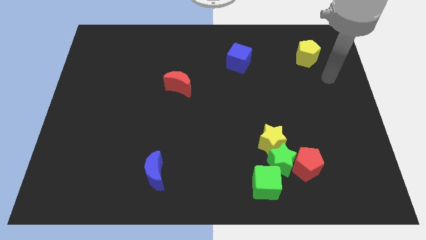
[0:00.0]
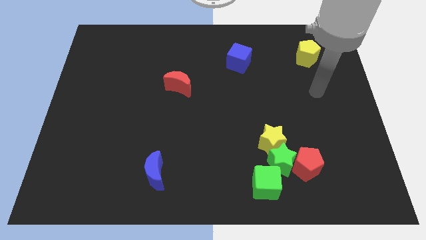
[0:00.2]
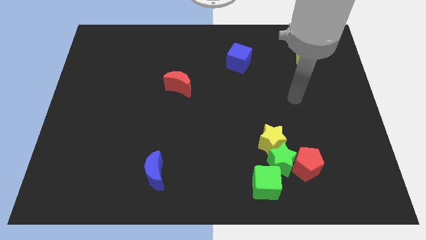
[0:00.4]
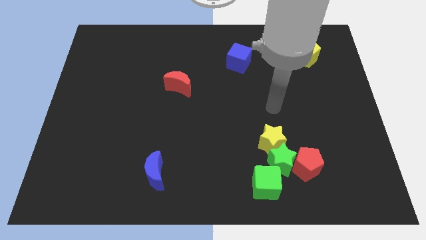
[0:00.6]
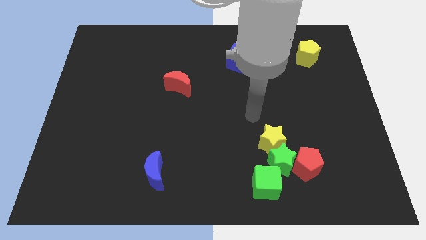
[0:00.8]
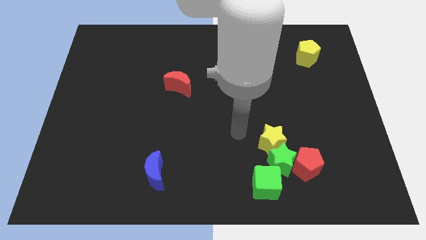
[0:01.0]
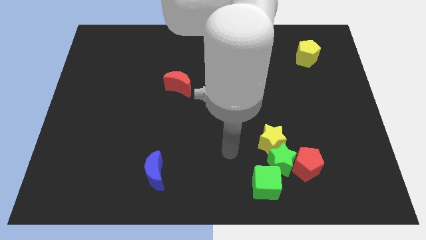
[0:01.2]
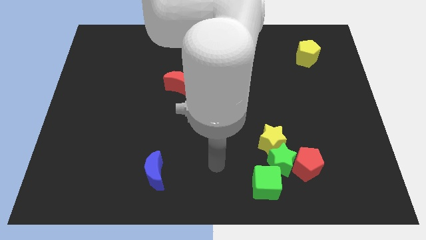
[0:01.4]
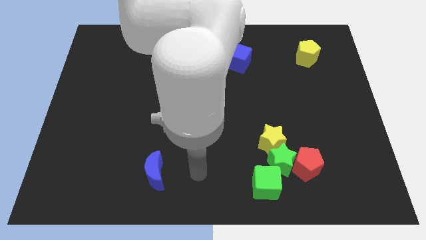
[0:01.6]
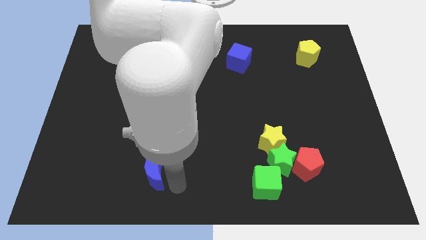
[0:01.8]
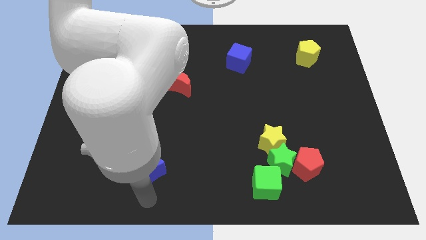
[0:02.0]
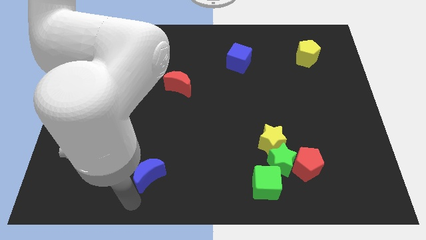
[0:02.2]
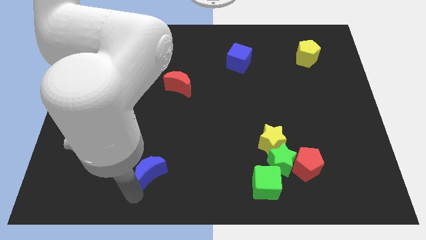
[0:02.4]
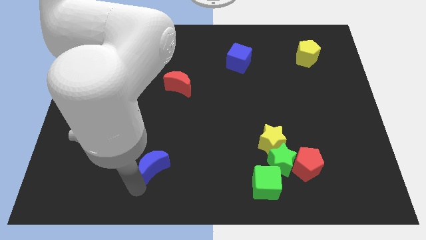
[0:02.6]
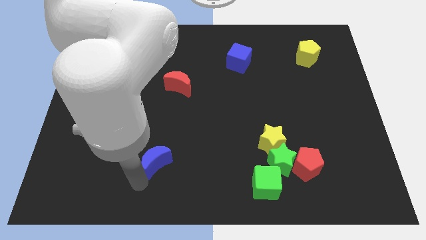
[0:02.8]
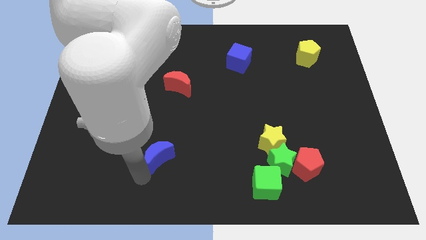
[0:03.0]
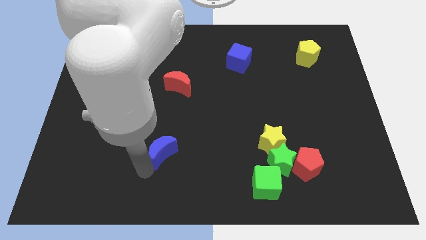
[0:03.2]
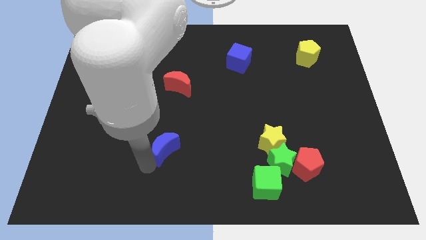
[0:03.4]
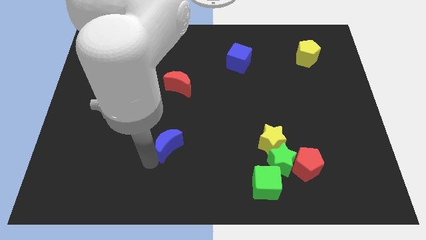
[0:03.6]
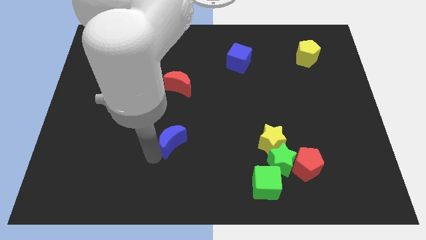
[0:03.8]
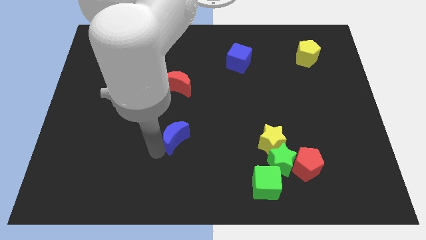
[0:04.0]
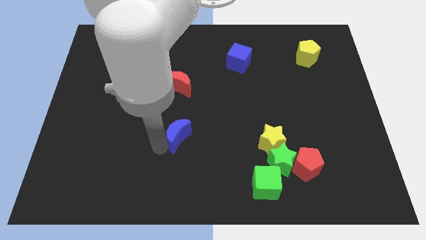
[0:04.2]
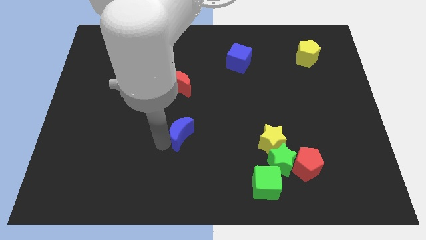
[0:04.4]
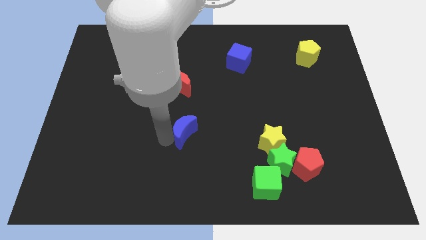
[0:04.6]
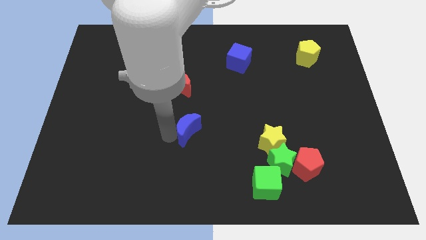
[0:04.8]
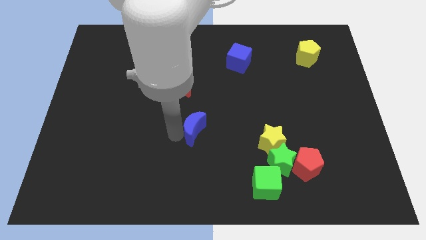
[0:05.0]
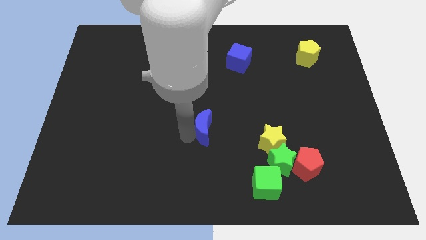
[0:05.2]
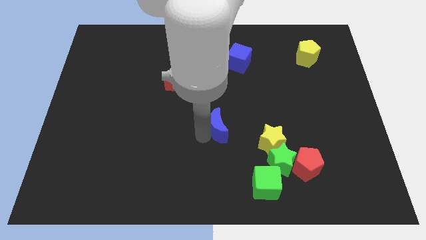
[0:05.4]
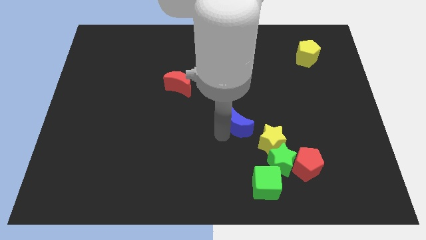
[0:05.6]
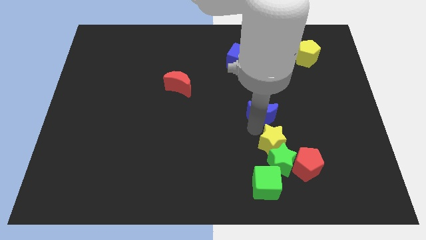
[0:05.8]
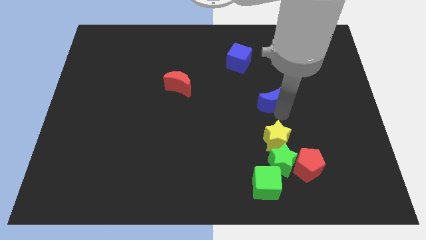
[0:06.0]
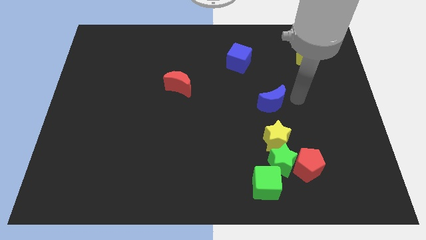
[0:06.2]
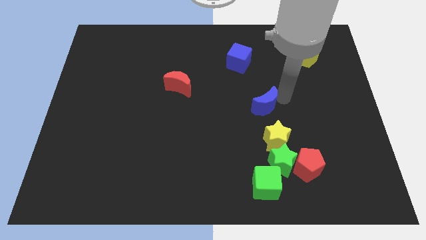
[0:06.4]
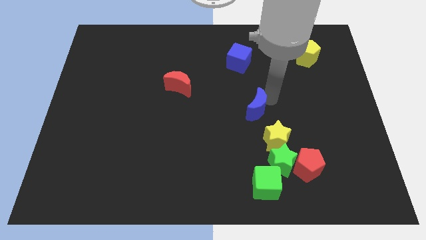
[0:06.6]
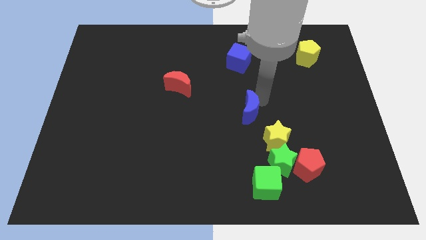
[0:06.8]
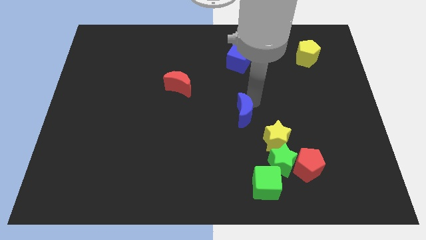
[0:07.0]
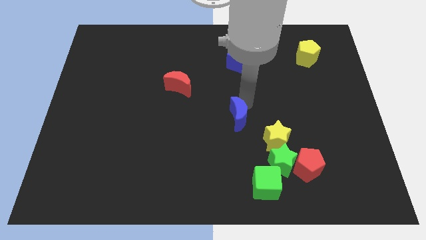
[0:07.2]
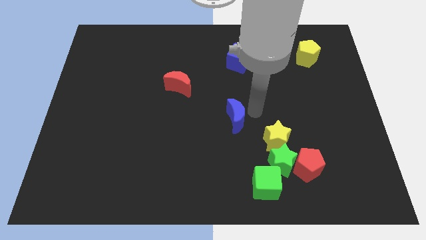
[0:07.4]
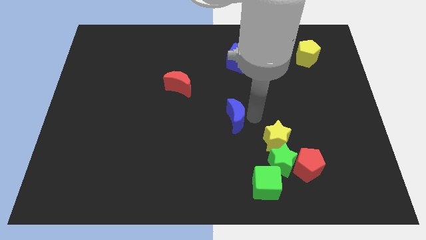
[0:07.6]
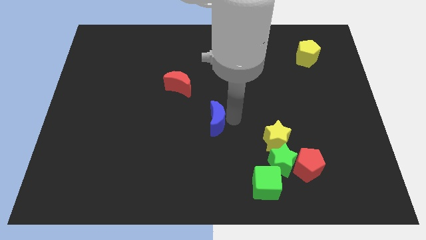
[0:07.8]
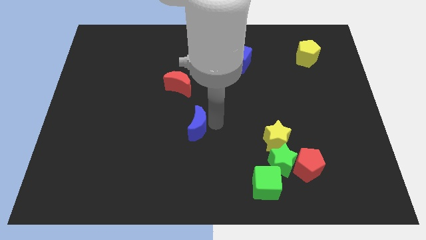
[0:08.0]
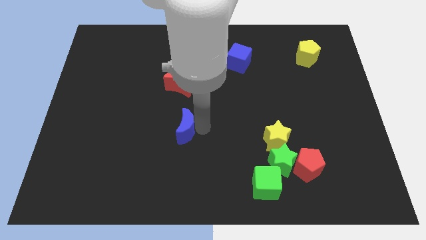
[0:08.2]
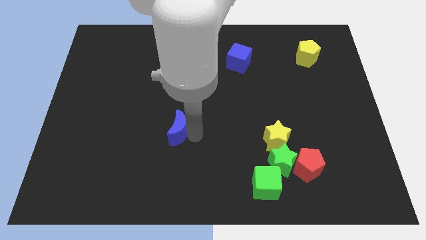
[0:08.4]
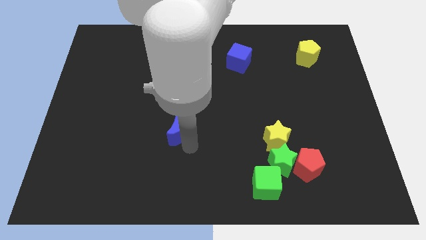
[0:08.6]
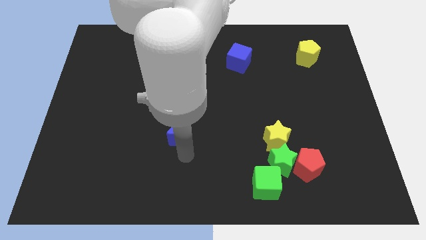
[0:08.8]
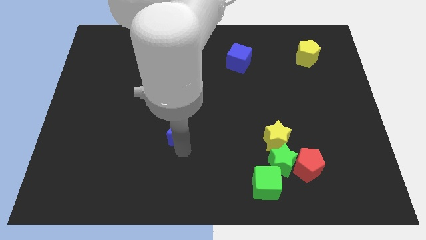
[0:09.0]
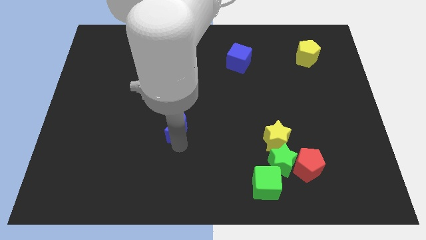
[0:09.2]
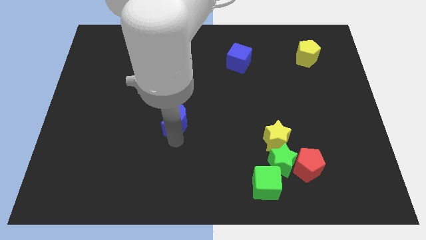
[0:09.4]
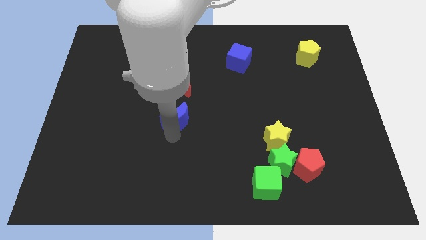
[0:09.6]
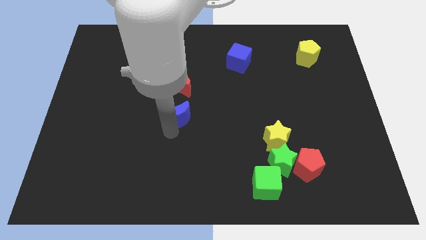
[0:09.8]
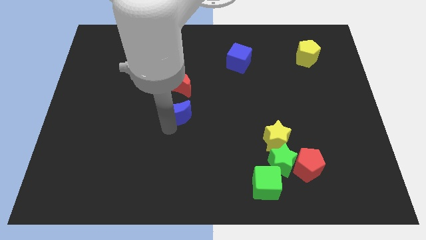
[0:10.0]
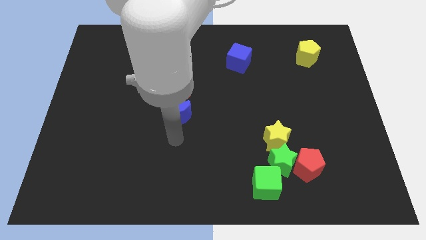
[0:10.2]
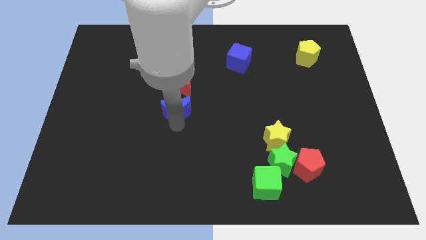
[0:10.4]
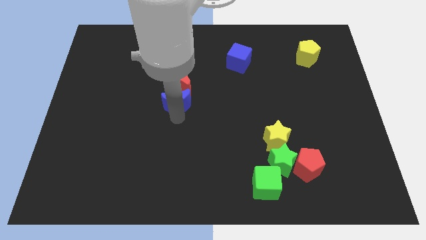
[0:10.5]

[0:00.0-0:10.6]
move the blue moon towards the red moon

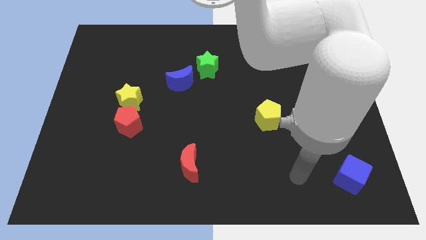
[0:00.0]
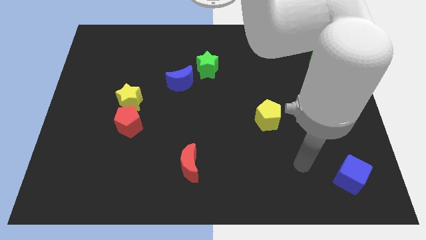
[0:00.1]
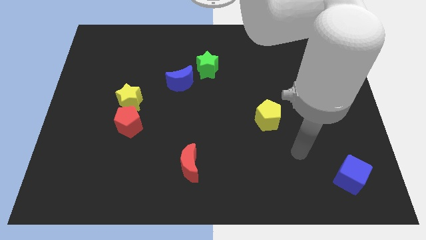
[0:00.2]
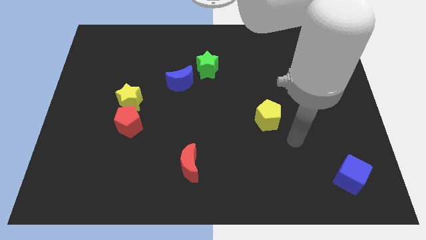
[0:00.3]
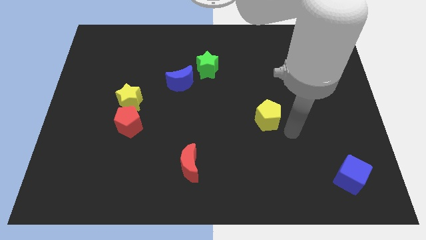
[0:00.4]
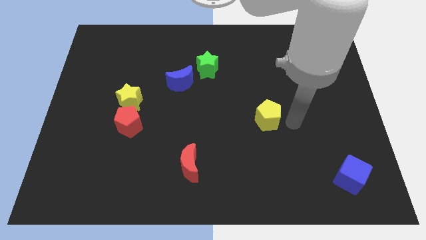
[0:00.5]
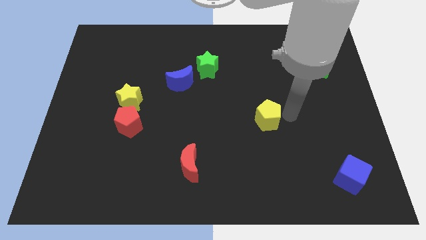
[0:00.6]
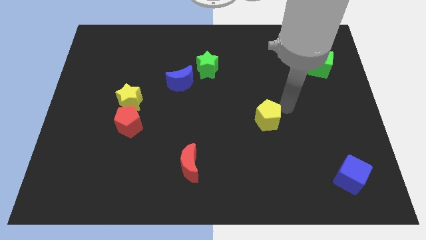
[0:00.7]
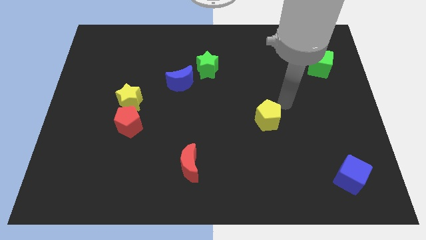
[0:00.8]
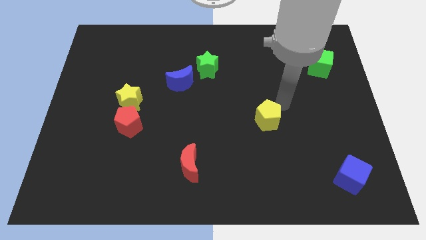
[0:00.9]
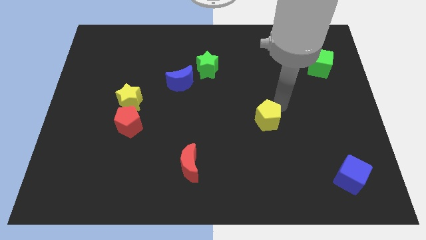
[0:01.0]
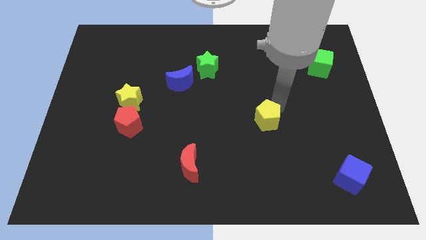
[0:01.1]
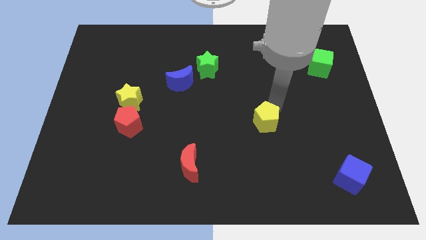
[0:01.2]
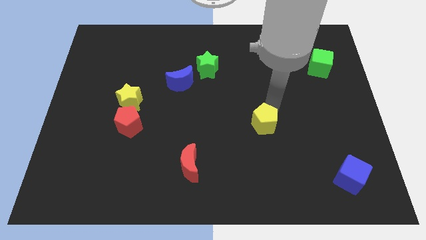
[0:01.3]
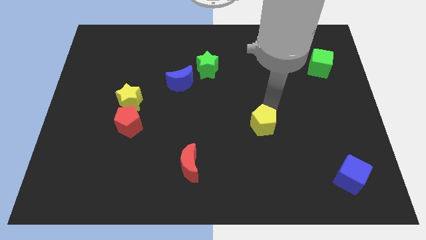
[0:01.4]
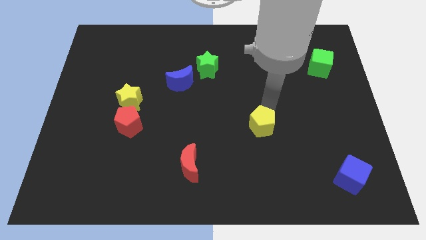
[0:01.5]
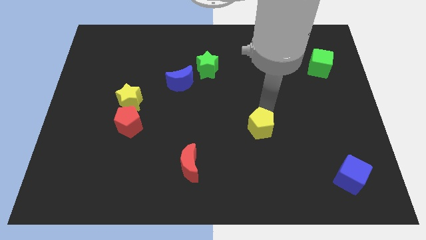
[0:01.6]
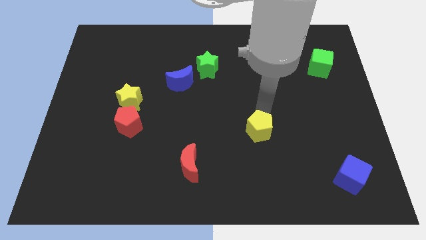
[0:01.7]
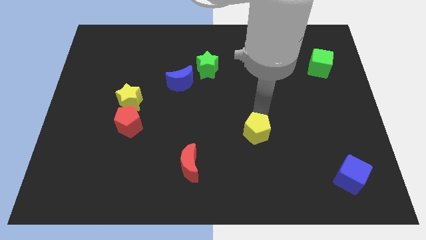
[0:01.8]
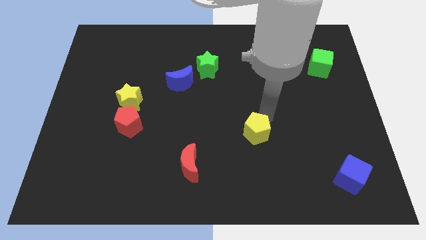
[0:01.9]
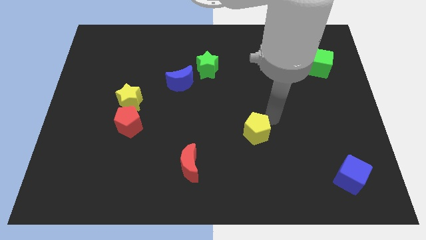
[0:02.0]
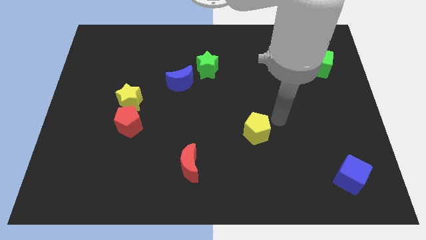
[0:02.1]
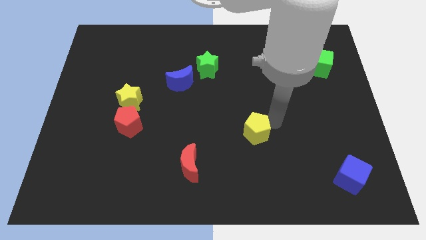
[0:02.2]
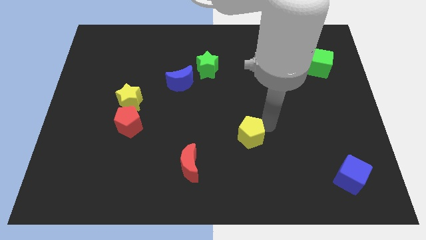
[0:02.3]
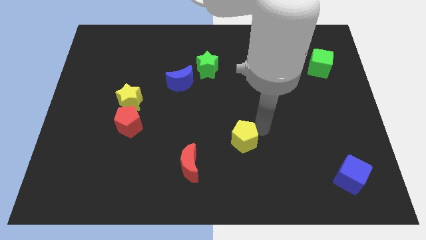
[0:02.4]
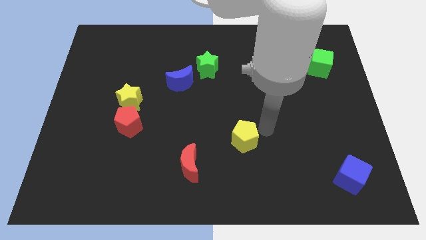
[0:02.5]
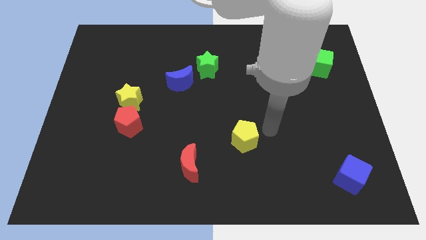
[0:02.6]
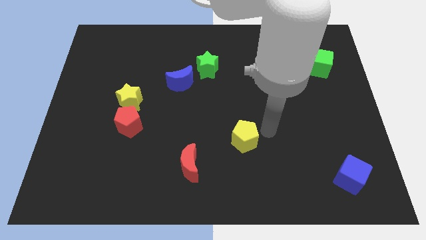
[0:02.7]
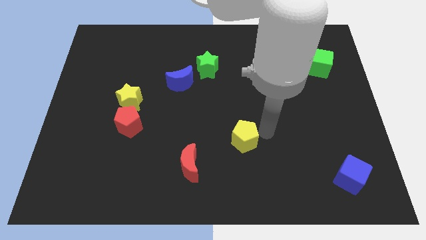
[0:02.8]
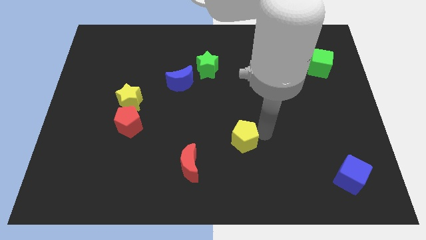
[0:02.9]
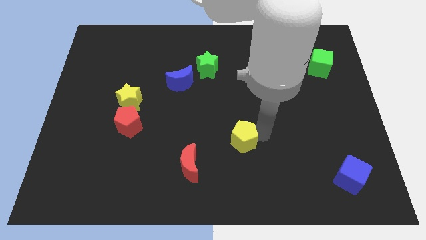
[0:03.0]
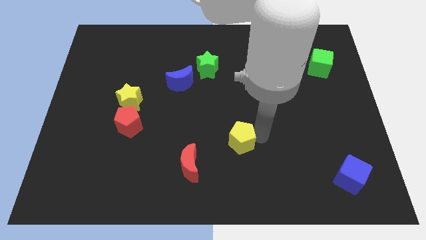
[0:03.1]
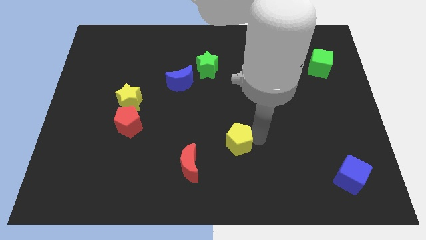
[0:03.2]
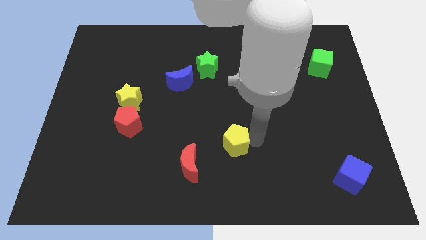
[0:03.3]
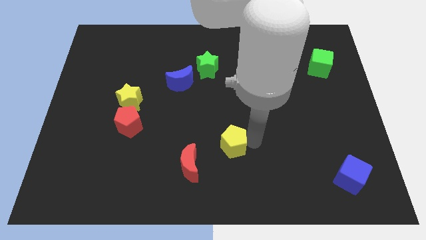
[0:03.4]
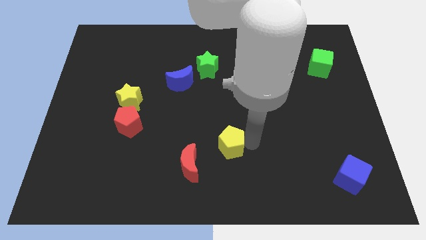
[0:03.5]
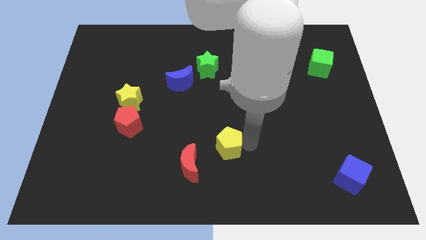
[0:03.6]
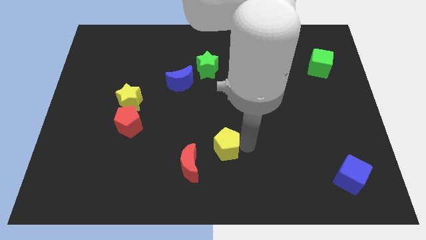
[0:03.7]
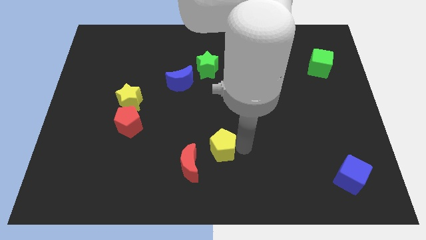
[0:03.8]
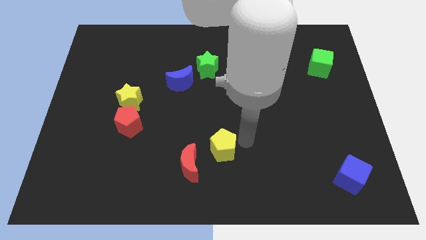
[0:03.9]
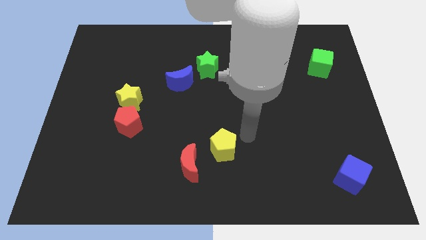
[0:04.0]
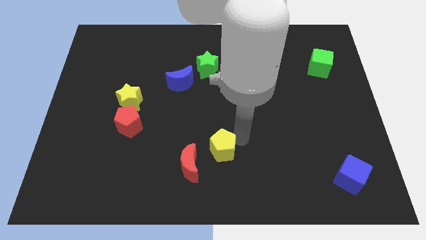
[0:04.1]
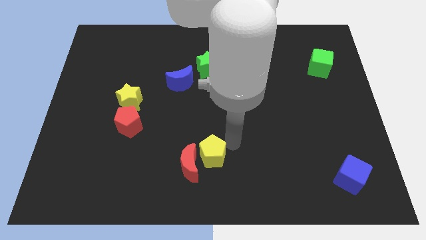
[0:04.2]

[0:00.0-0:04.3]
slide the yellow pentagon to the red moon
